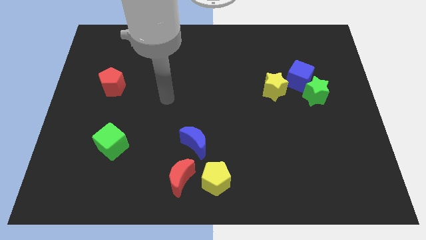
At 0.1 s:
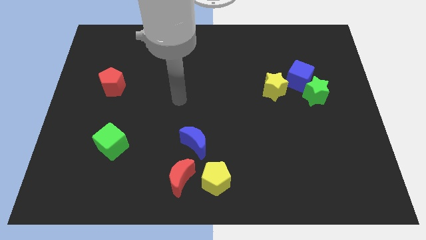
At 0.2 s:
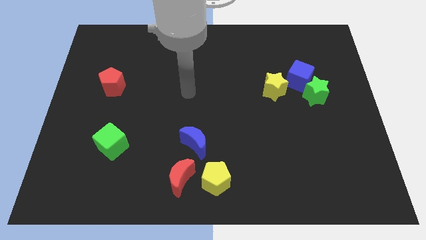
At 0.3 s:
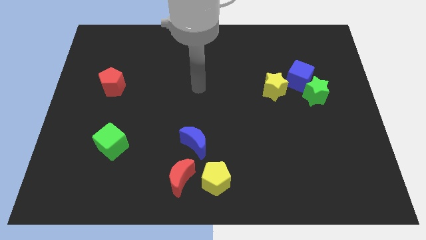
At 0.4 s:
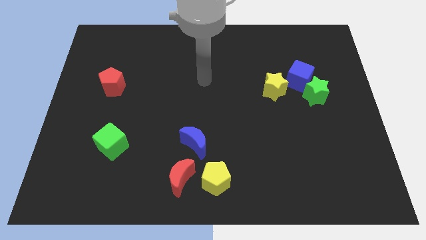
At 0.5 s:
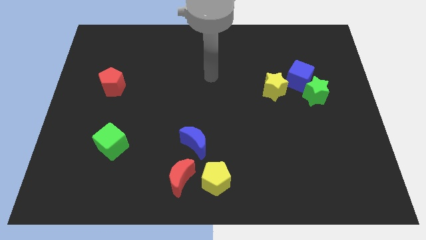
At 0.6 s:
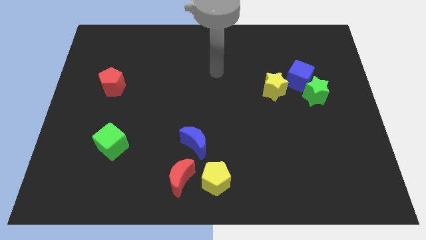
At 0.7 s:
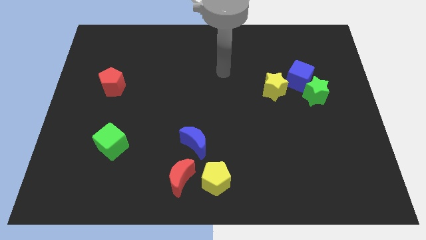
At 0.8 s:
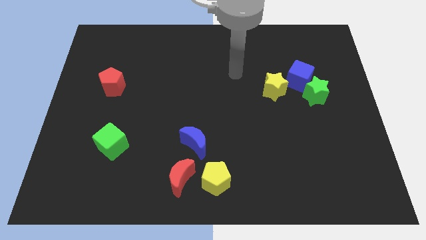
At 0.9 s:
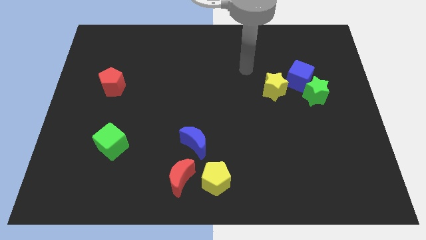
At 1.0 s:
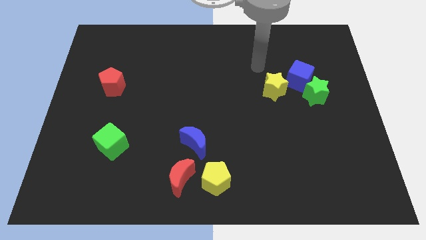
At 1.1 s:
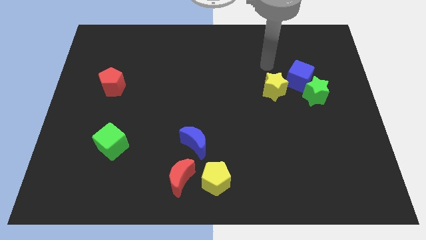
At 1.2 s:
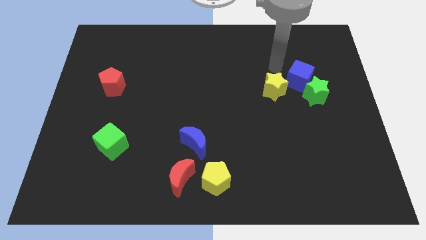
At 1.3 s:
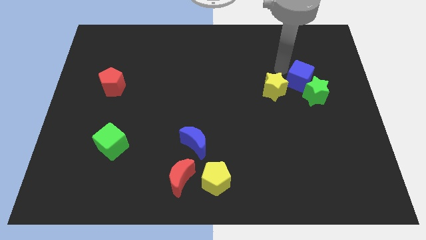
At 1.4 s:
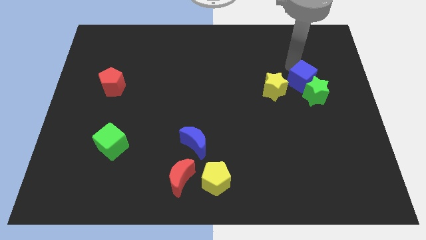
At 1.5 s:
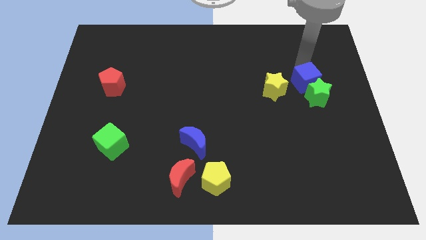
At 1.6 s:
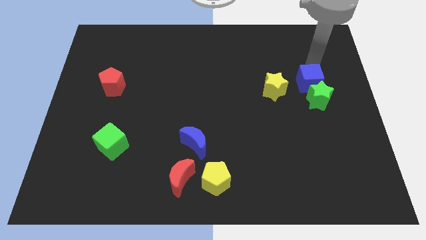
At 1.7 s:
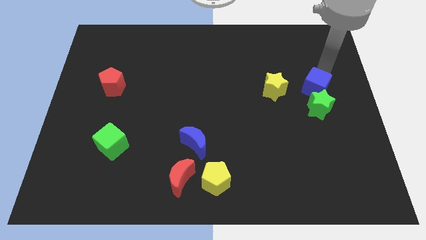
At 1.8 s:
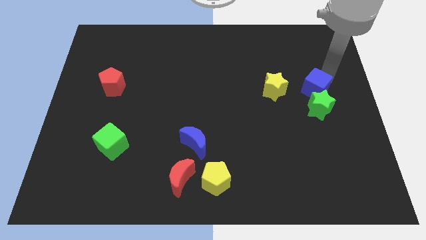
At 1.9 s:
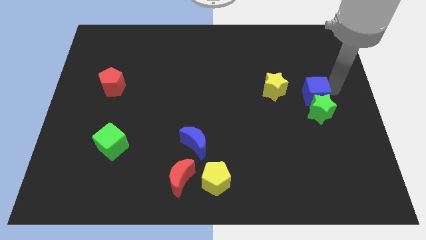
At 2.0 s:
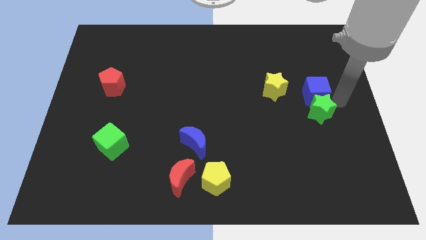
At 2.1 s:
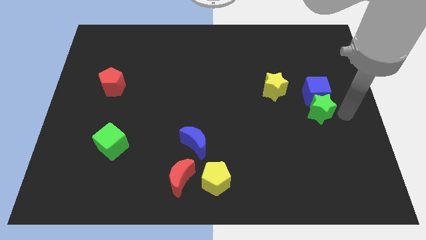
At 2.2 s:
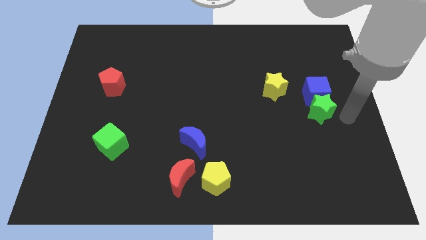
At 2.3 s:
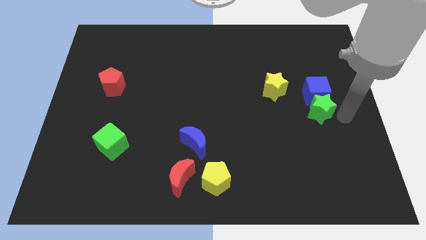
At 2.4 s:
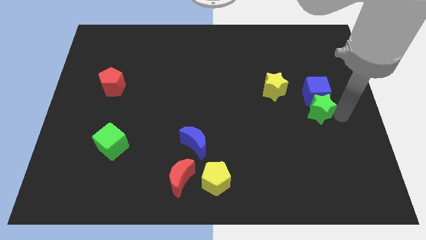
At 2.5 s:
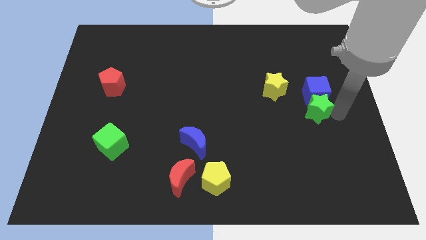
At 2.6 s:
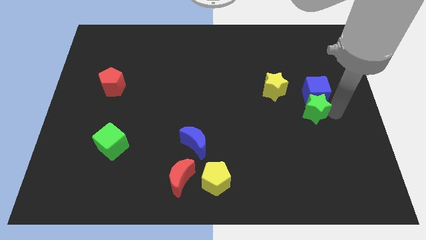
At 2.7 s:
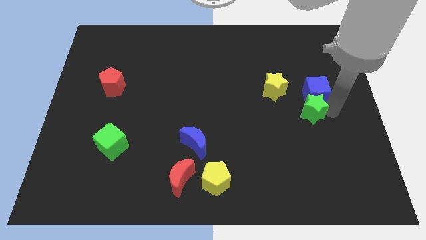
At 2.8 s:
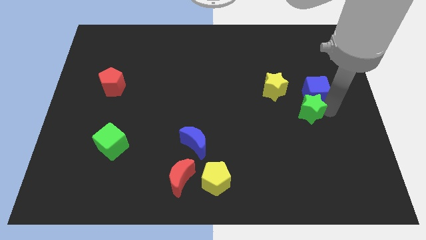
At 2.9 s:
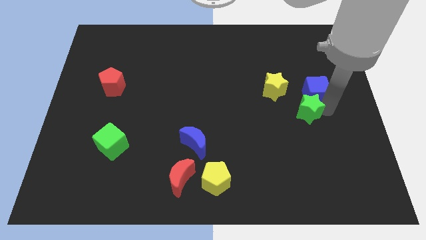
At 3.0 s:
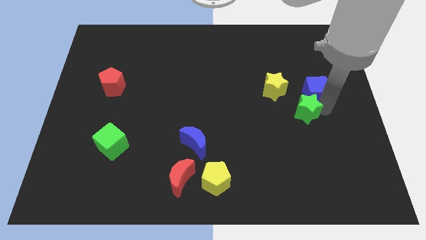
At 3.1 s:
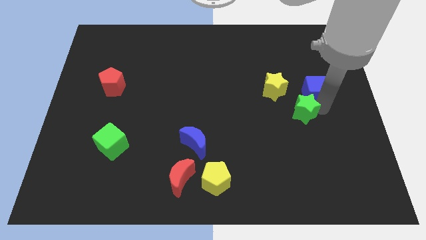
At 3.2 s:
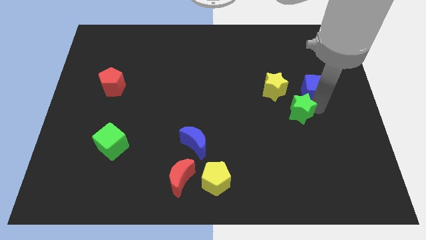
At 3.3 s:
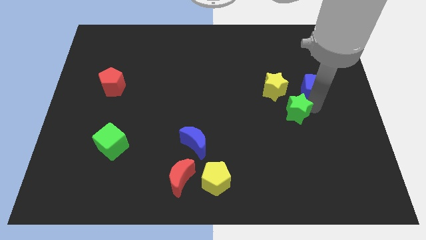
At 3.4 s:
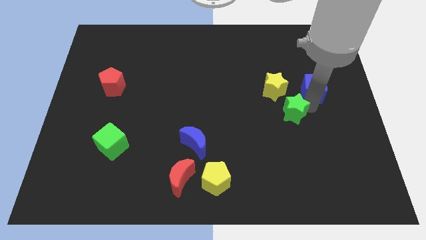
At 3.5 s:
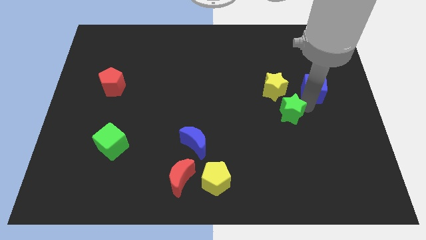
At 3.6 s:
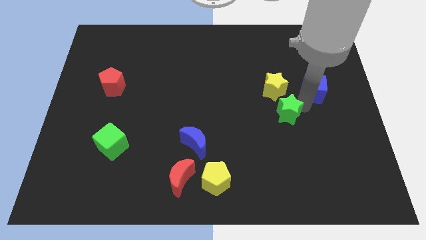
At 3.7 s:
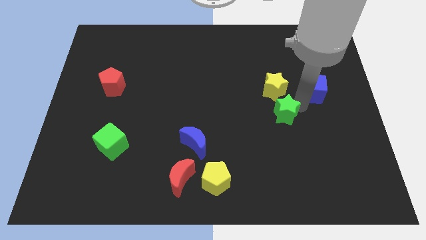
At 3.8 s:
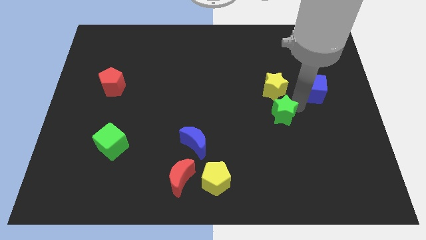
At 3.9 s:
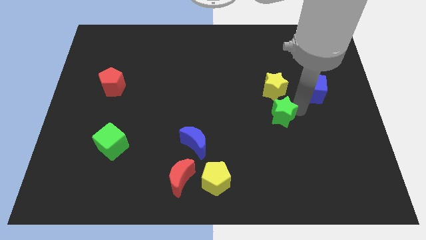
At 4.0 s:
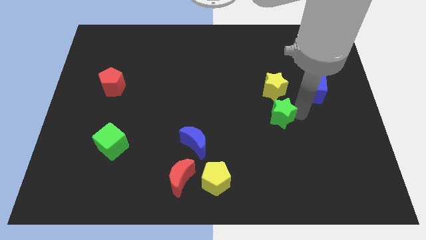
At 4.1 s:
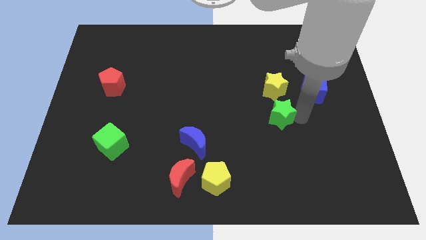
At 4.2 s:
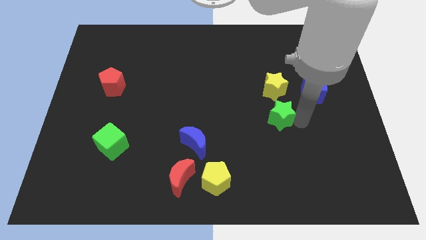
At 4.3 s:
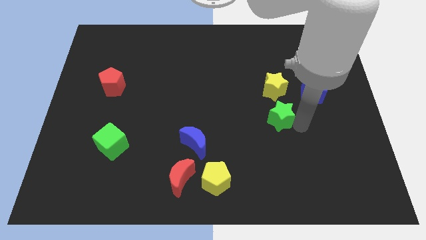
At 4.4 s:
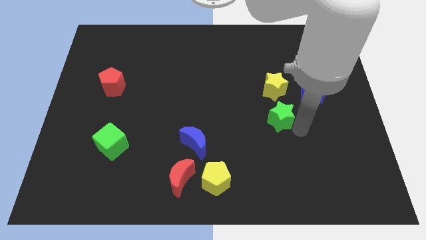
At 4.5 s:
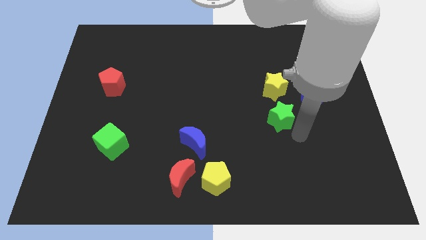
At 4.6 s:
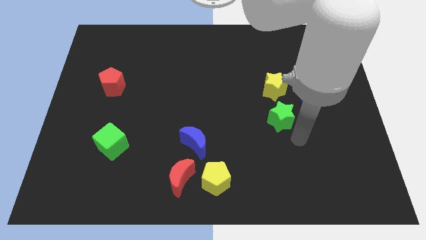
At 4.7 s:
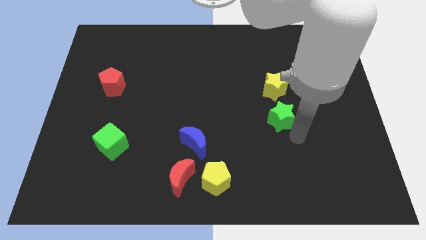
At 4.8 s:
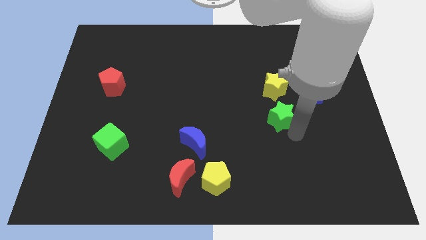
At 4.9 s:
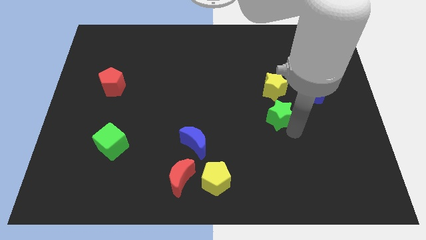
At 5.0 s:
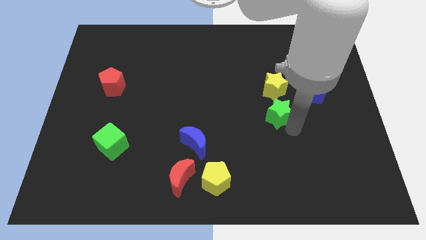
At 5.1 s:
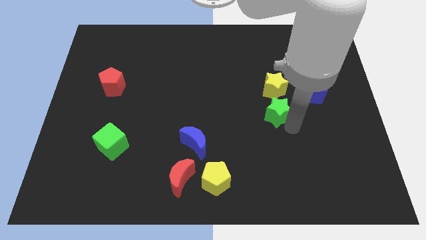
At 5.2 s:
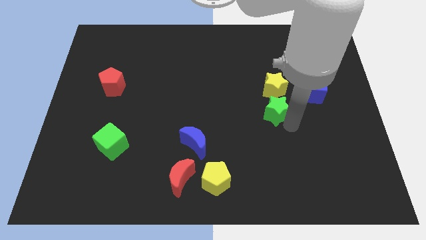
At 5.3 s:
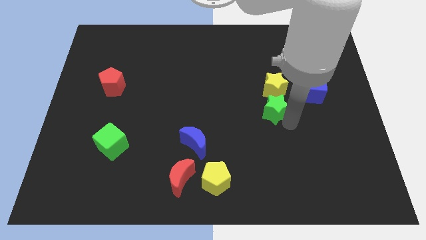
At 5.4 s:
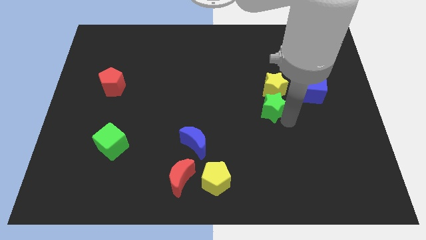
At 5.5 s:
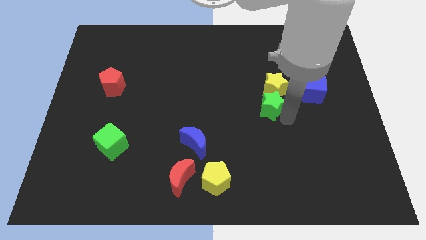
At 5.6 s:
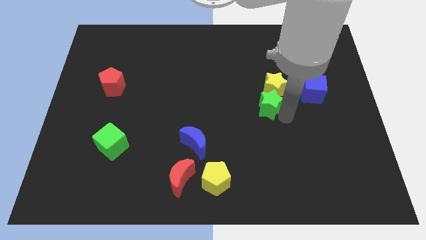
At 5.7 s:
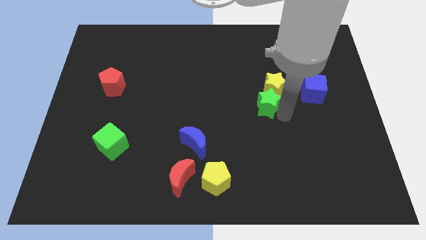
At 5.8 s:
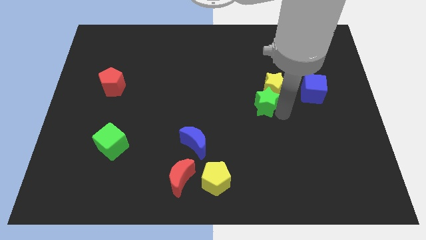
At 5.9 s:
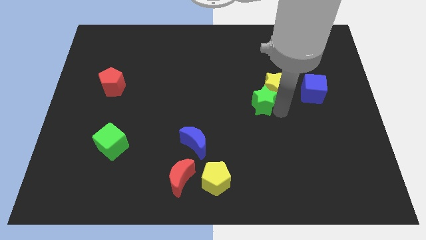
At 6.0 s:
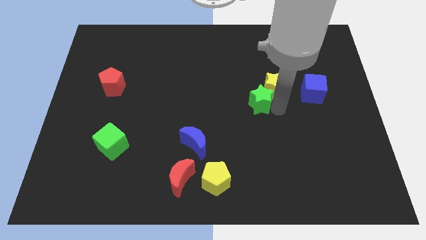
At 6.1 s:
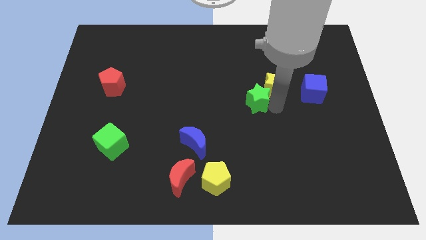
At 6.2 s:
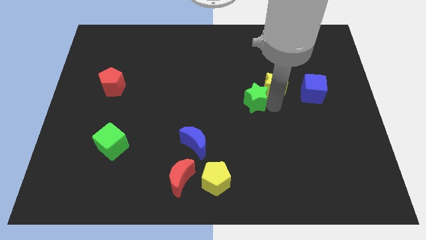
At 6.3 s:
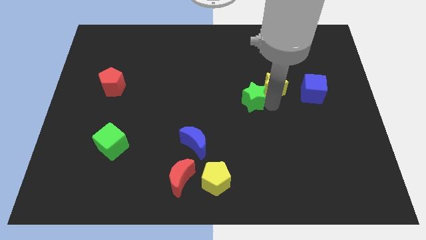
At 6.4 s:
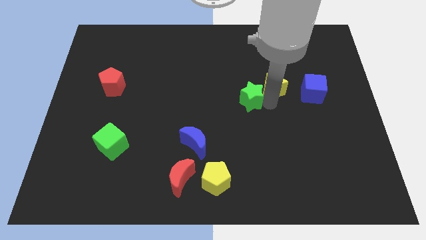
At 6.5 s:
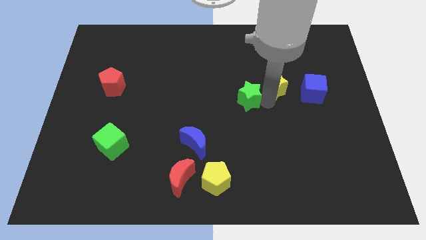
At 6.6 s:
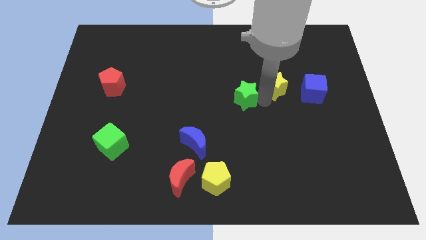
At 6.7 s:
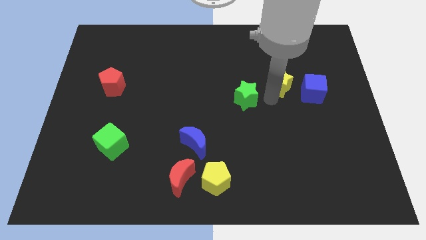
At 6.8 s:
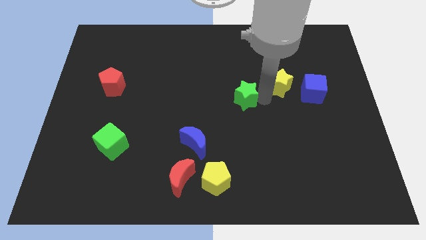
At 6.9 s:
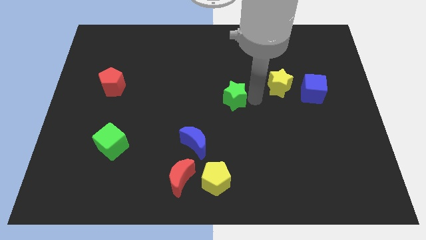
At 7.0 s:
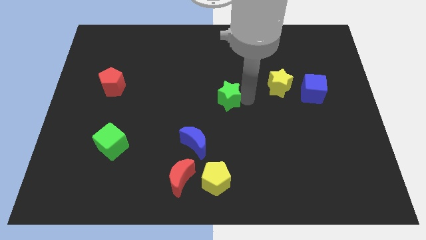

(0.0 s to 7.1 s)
move the green star left

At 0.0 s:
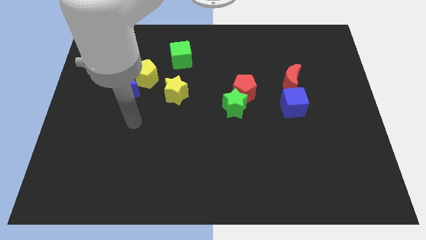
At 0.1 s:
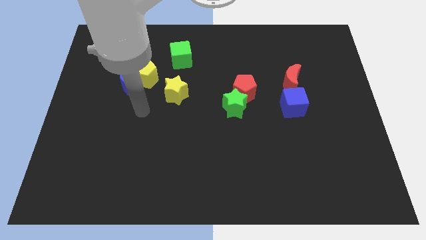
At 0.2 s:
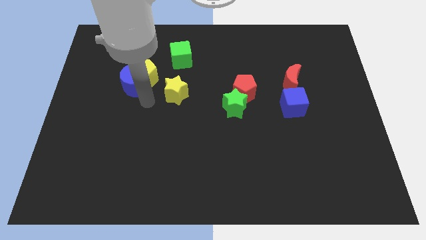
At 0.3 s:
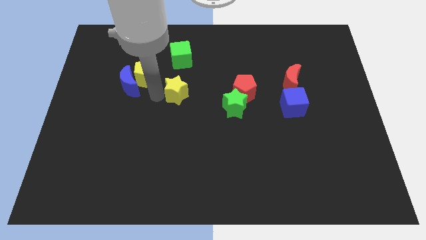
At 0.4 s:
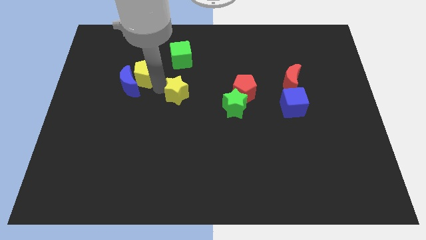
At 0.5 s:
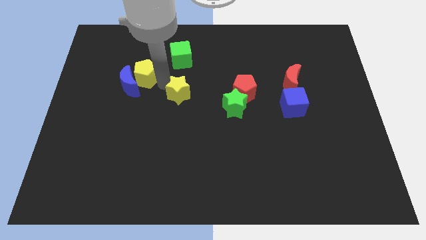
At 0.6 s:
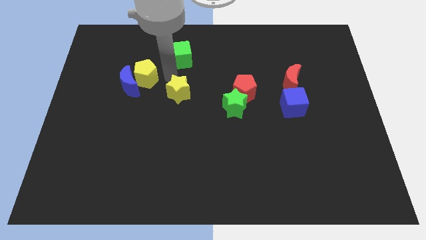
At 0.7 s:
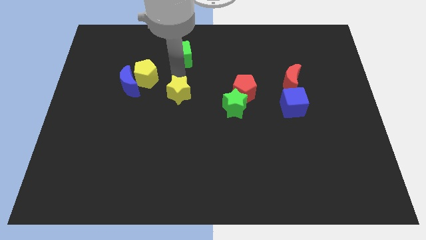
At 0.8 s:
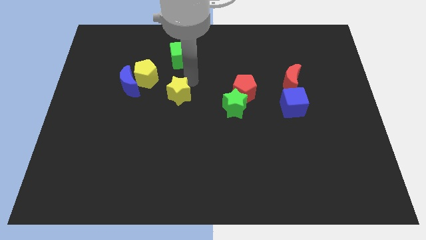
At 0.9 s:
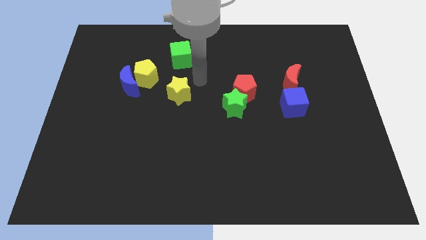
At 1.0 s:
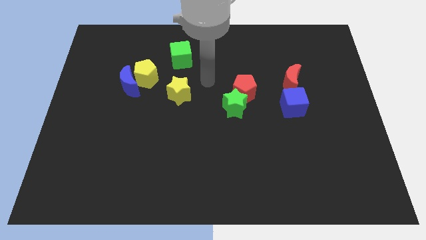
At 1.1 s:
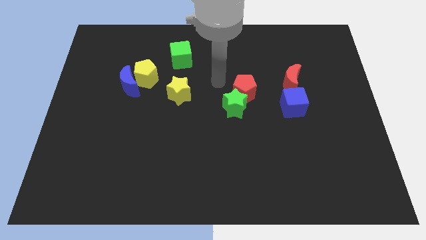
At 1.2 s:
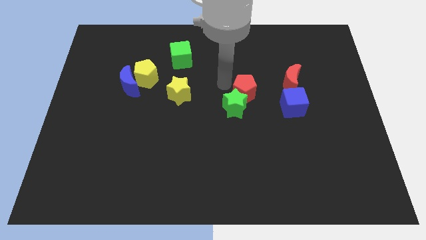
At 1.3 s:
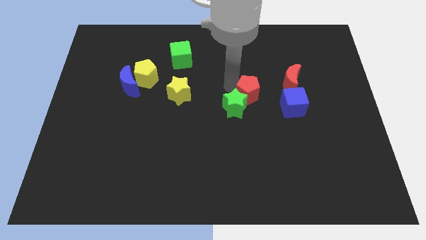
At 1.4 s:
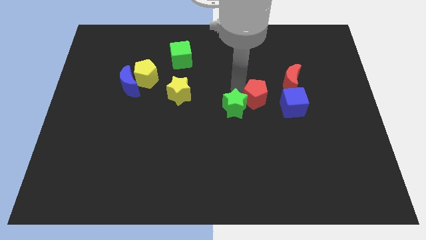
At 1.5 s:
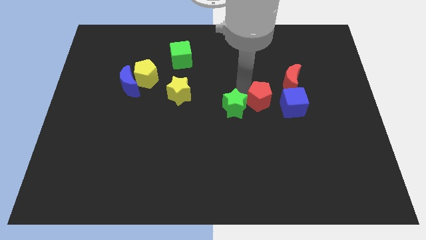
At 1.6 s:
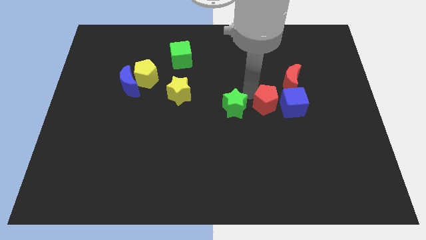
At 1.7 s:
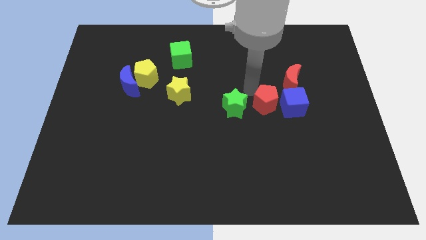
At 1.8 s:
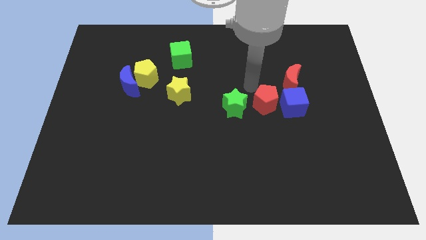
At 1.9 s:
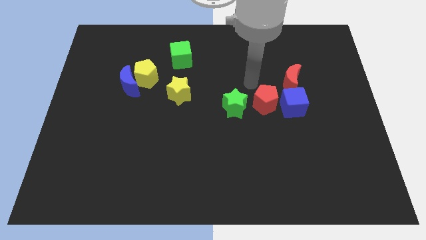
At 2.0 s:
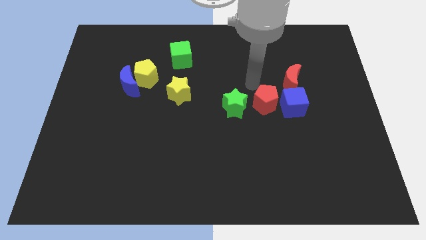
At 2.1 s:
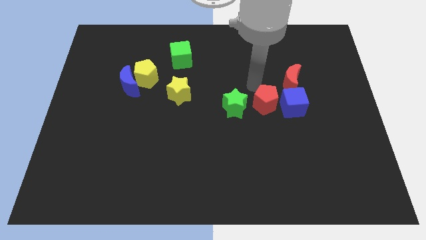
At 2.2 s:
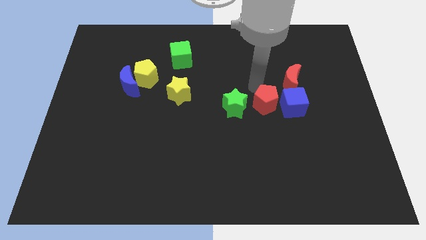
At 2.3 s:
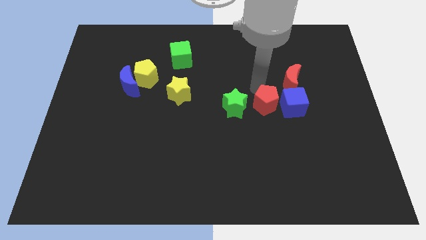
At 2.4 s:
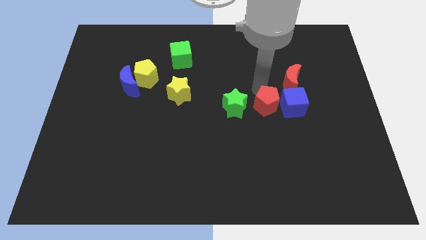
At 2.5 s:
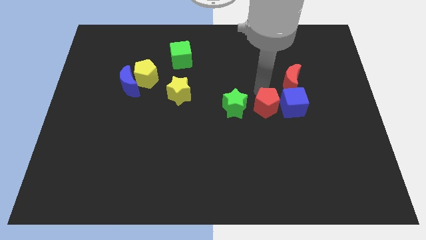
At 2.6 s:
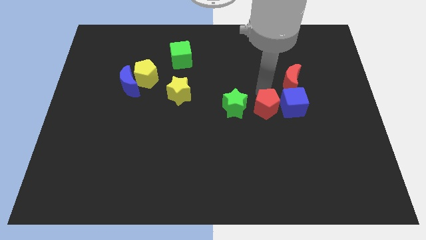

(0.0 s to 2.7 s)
move the red pentagon a bit downwards and to the right diagonally
